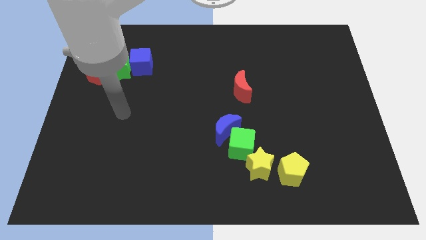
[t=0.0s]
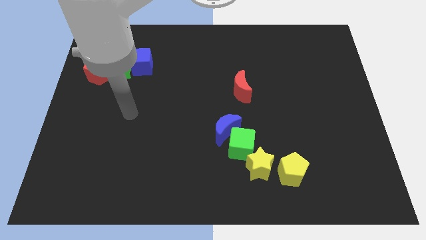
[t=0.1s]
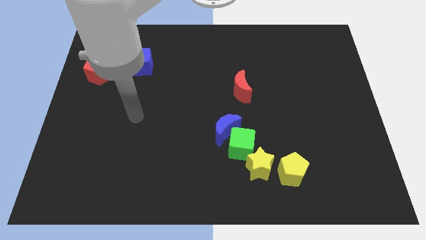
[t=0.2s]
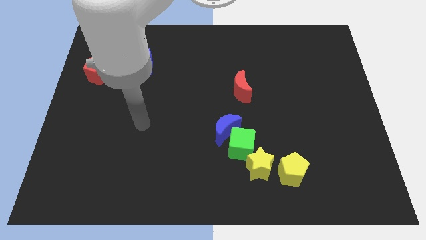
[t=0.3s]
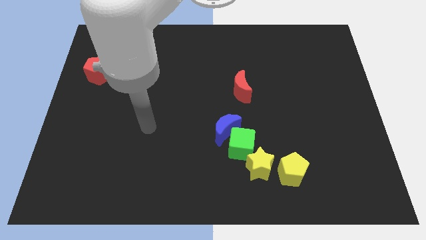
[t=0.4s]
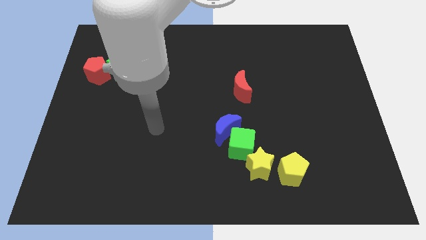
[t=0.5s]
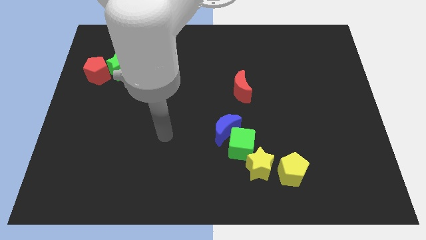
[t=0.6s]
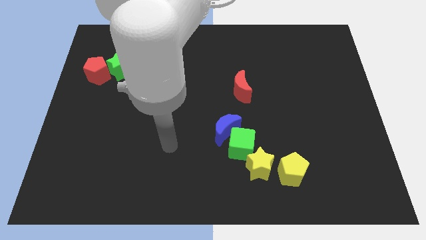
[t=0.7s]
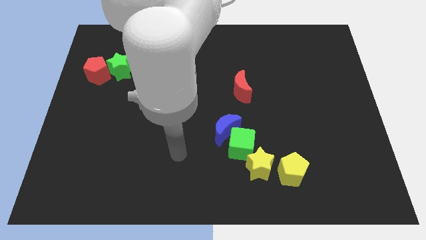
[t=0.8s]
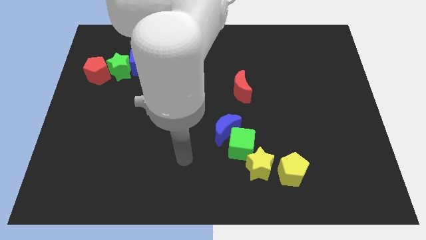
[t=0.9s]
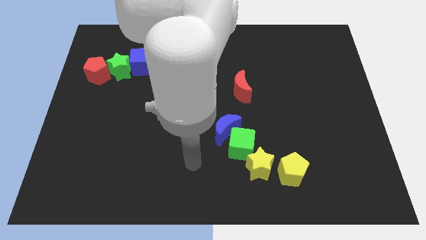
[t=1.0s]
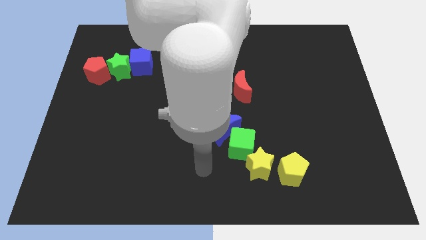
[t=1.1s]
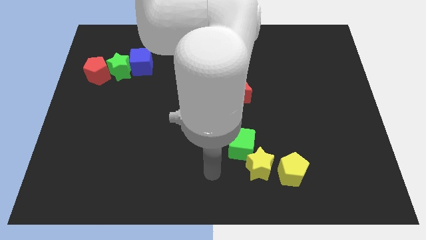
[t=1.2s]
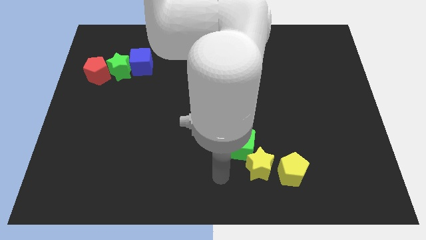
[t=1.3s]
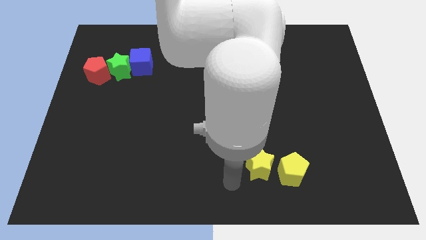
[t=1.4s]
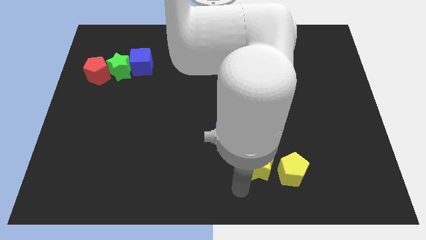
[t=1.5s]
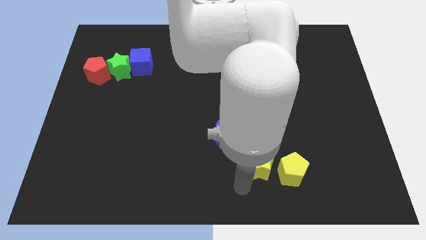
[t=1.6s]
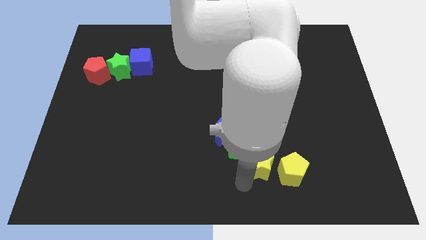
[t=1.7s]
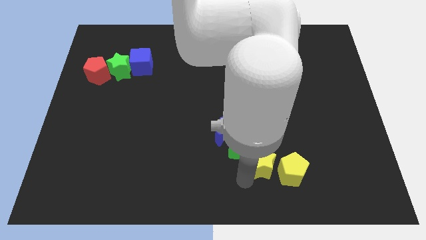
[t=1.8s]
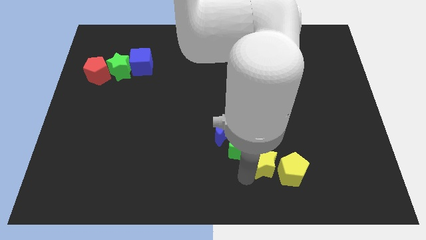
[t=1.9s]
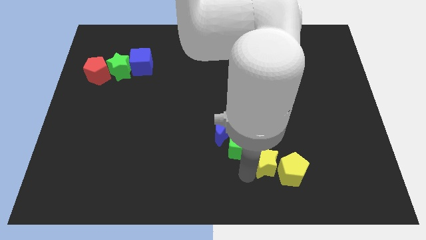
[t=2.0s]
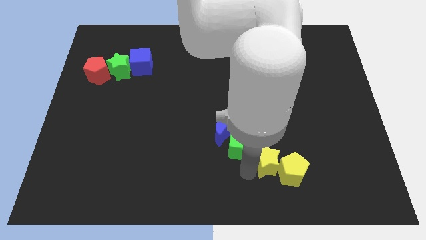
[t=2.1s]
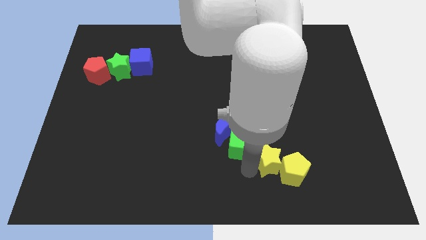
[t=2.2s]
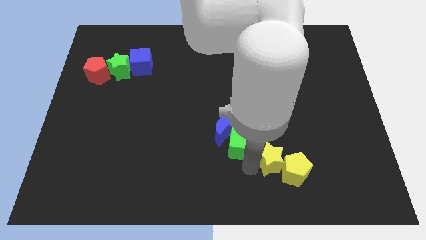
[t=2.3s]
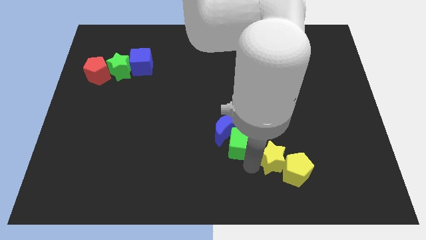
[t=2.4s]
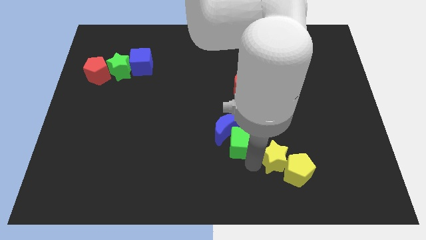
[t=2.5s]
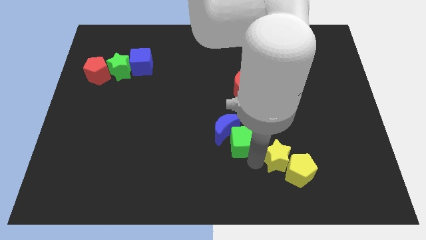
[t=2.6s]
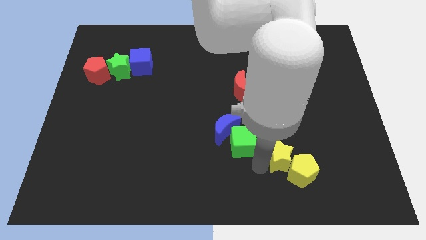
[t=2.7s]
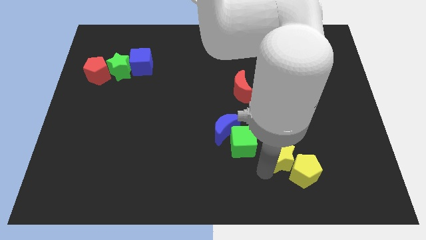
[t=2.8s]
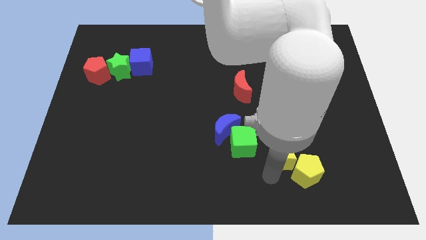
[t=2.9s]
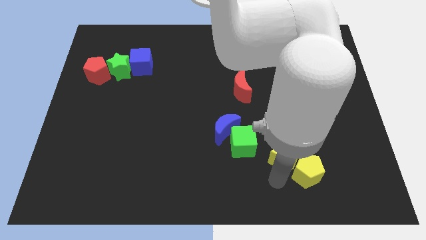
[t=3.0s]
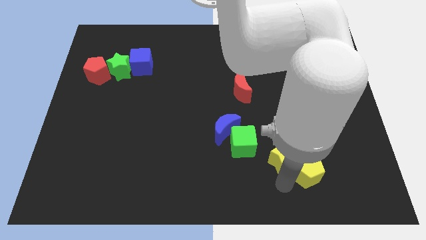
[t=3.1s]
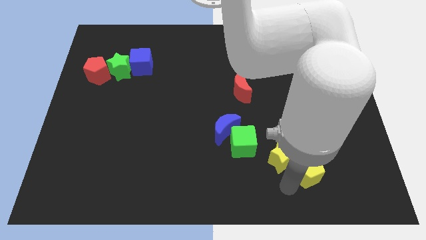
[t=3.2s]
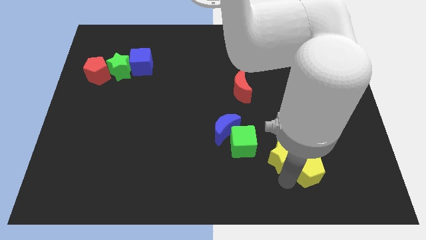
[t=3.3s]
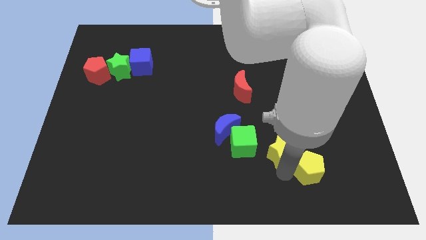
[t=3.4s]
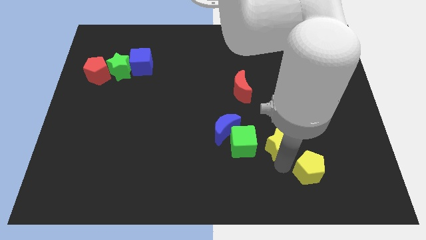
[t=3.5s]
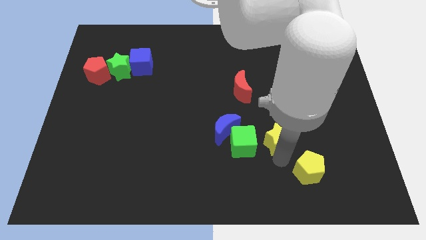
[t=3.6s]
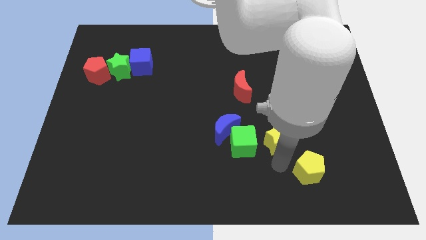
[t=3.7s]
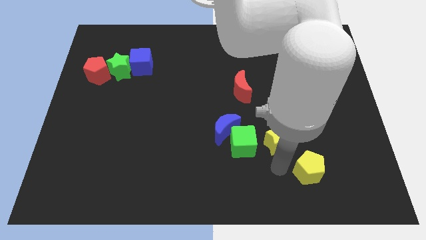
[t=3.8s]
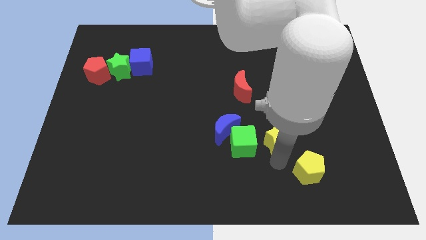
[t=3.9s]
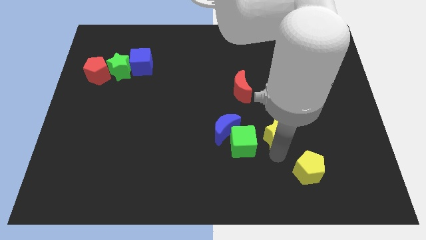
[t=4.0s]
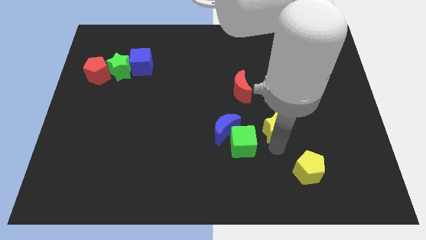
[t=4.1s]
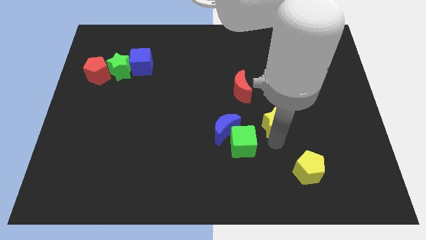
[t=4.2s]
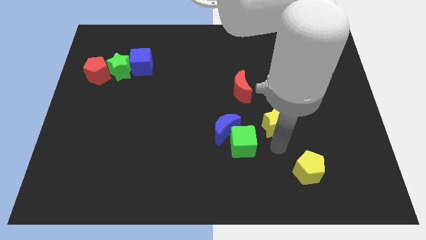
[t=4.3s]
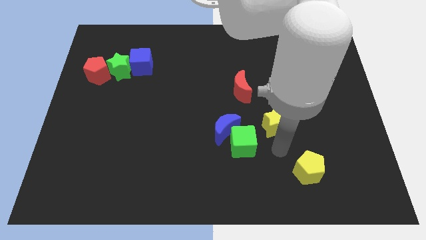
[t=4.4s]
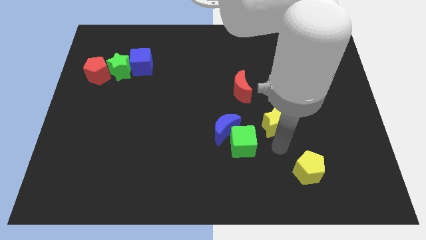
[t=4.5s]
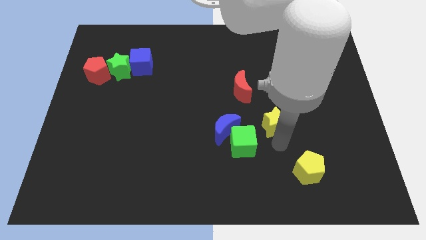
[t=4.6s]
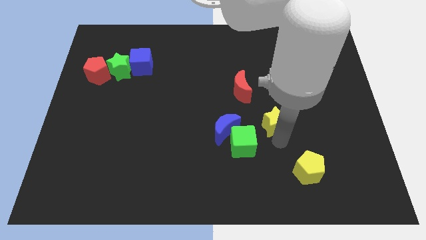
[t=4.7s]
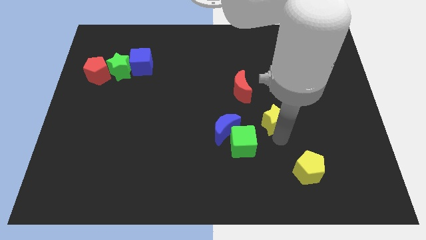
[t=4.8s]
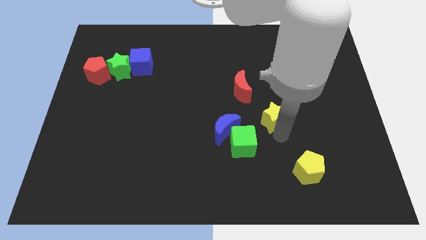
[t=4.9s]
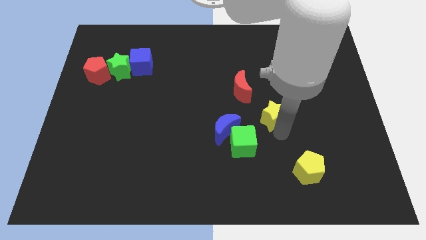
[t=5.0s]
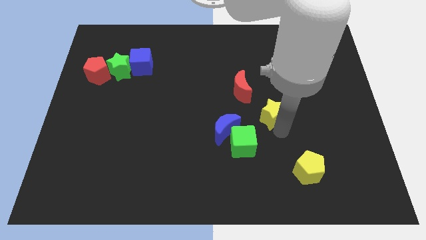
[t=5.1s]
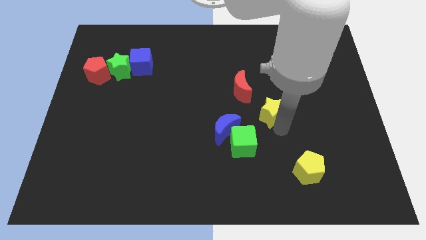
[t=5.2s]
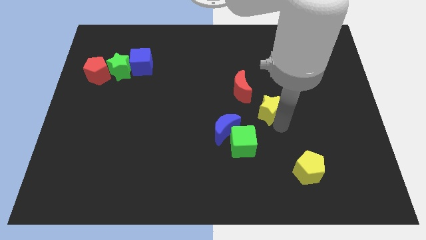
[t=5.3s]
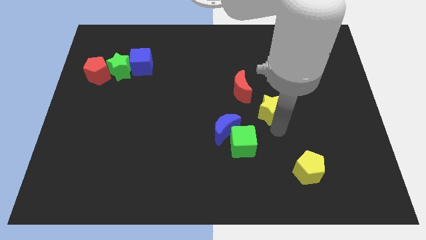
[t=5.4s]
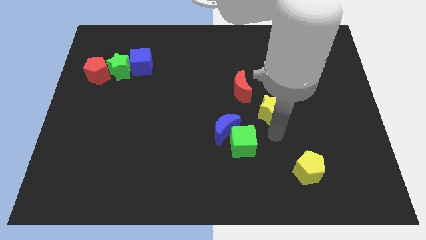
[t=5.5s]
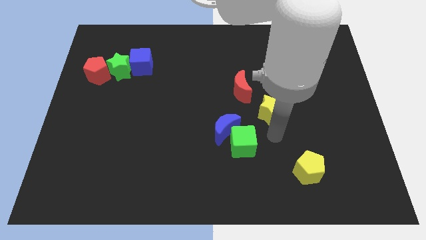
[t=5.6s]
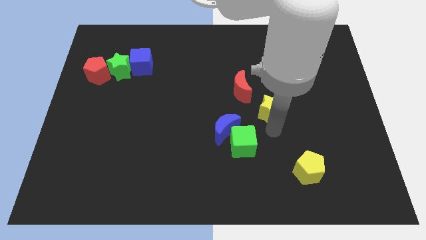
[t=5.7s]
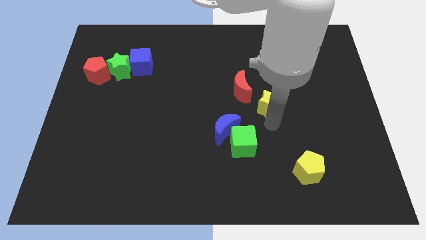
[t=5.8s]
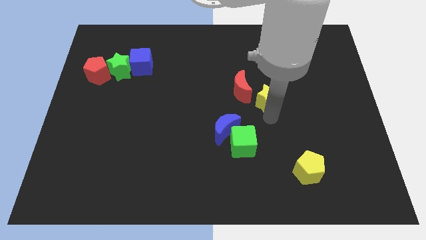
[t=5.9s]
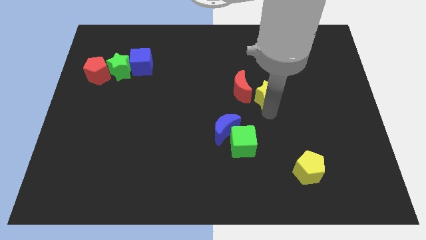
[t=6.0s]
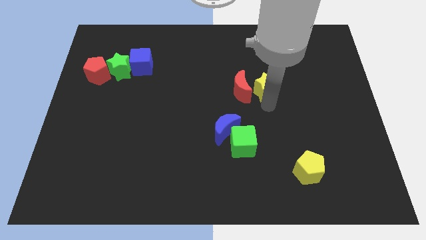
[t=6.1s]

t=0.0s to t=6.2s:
move the yellow star upwards

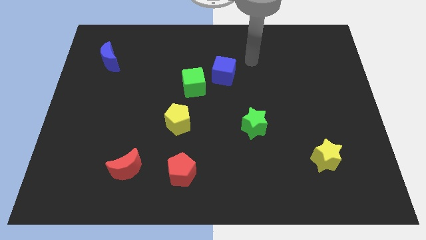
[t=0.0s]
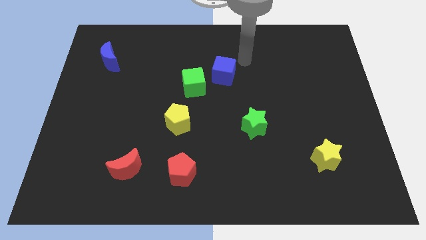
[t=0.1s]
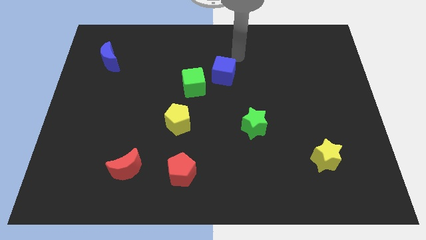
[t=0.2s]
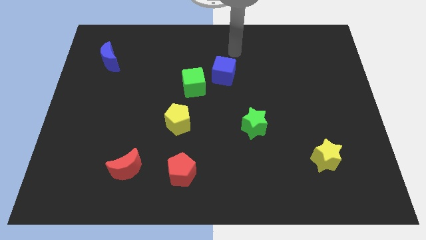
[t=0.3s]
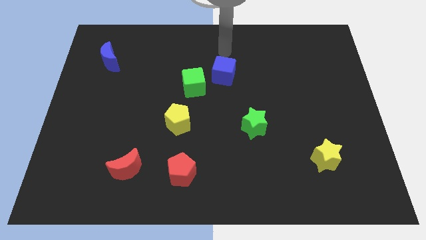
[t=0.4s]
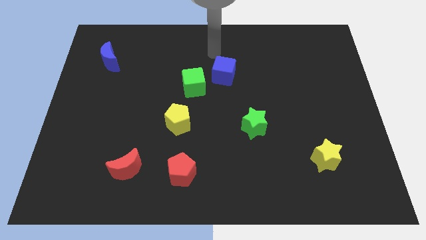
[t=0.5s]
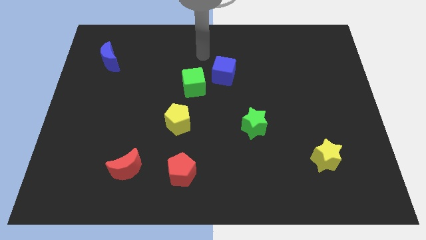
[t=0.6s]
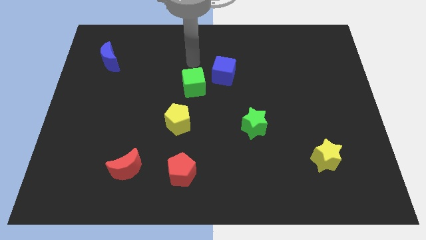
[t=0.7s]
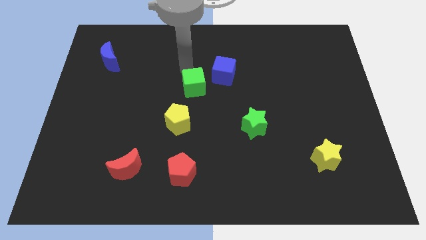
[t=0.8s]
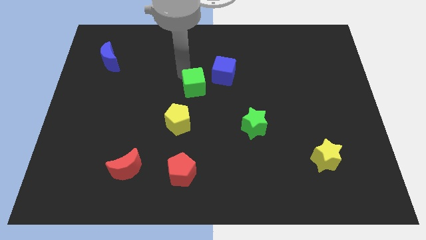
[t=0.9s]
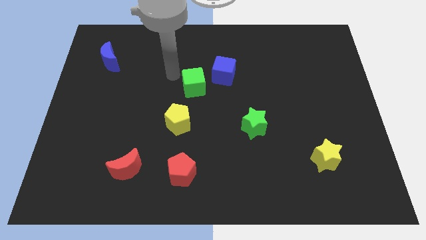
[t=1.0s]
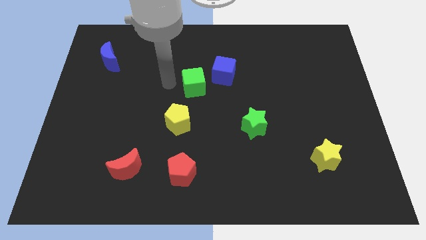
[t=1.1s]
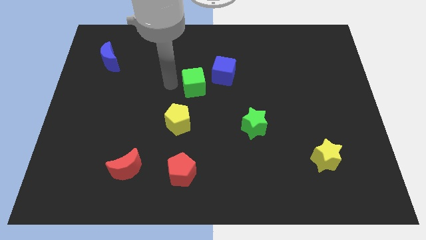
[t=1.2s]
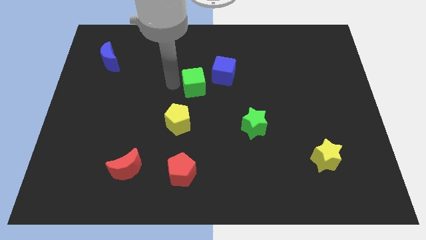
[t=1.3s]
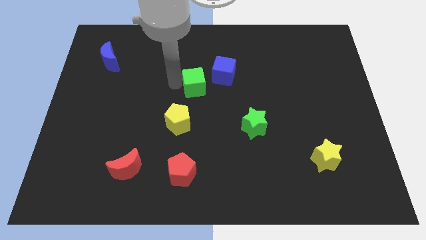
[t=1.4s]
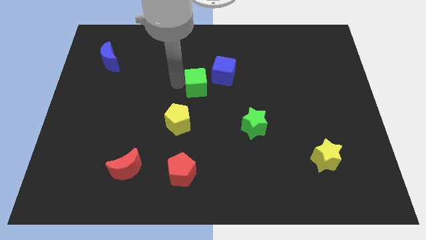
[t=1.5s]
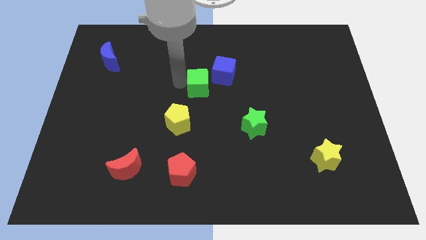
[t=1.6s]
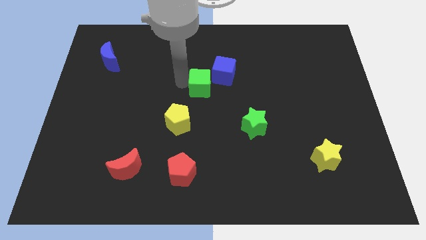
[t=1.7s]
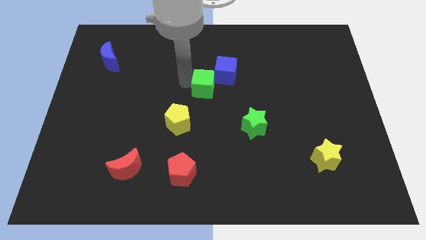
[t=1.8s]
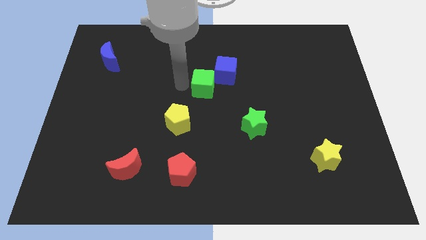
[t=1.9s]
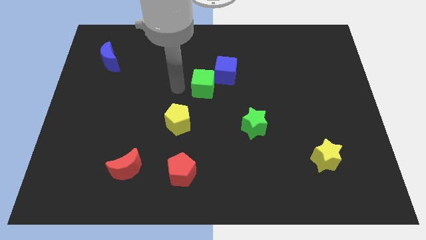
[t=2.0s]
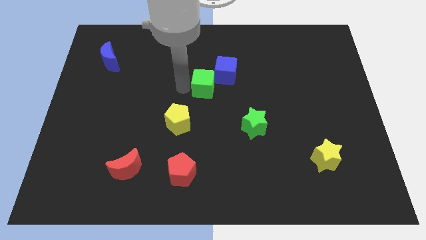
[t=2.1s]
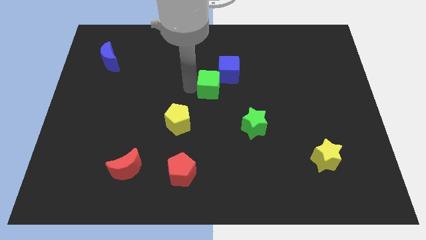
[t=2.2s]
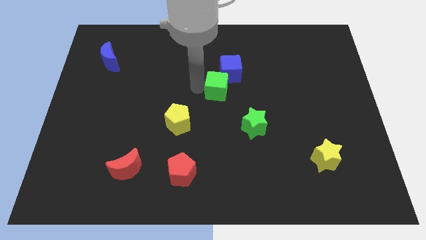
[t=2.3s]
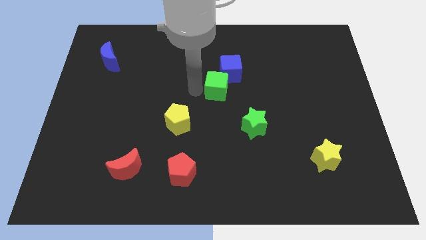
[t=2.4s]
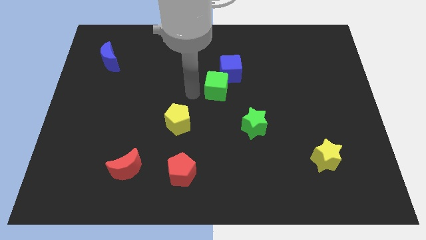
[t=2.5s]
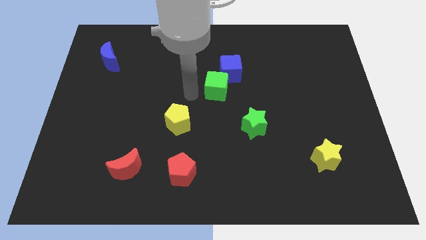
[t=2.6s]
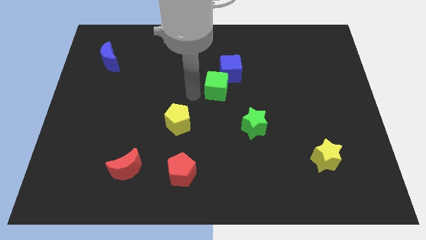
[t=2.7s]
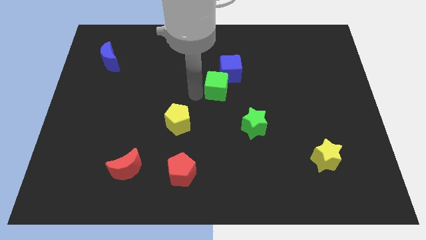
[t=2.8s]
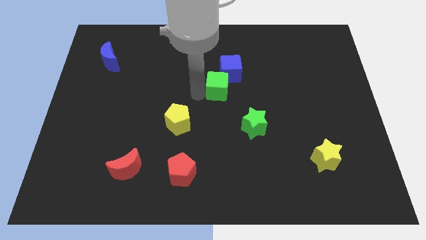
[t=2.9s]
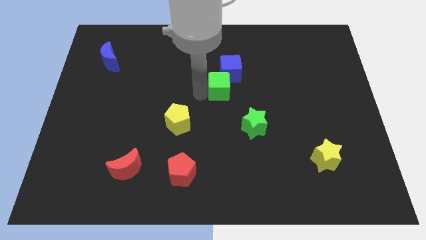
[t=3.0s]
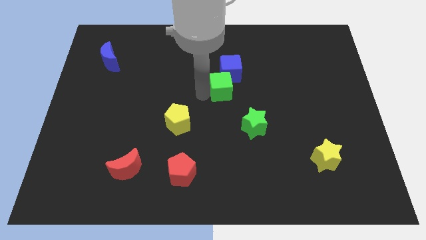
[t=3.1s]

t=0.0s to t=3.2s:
slide the green cube to the right a little
